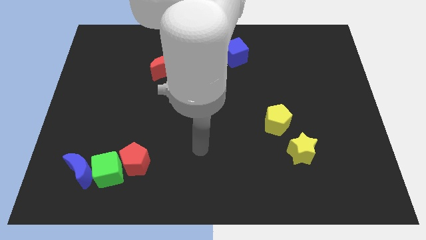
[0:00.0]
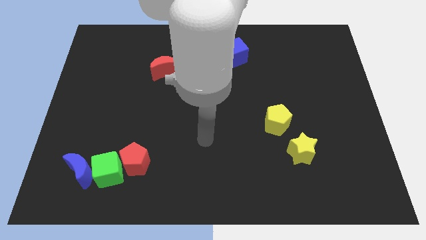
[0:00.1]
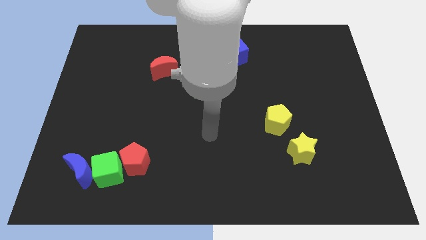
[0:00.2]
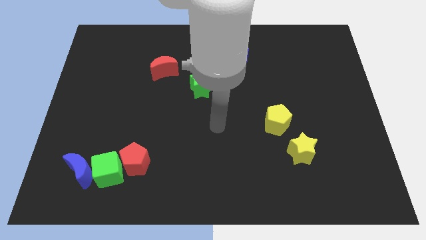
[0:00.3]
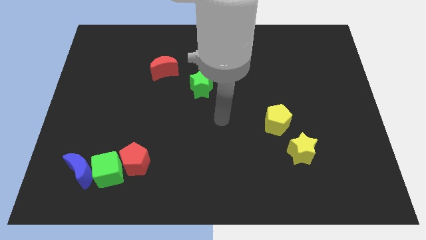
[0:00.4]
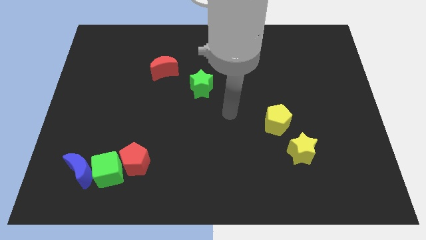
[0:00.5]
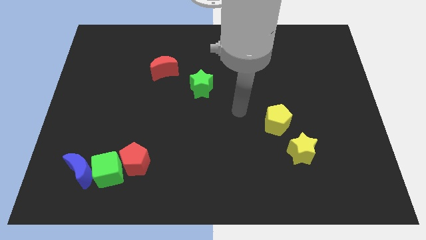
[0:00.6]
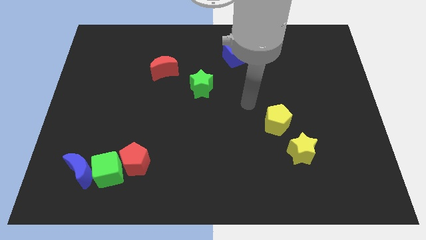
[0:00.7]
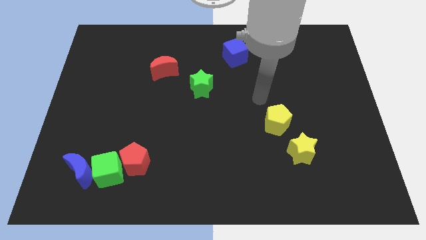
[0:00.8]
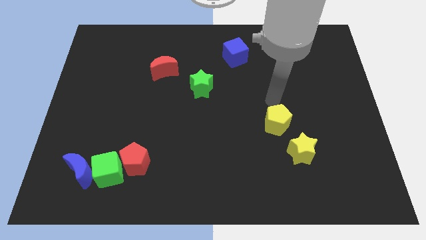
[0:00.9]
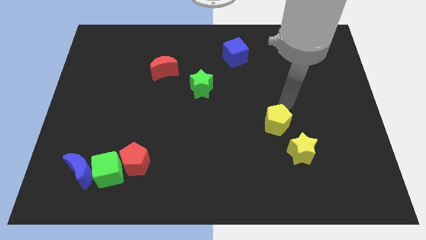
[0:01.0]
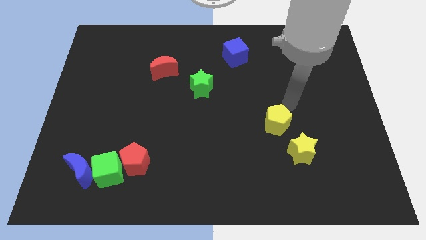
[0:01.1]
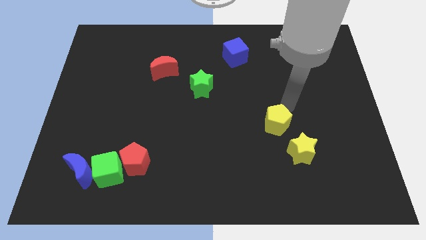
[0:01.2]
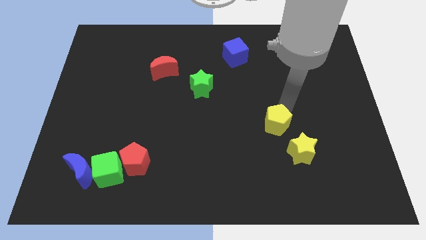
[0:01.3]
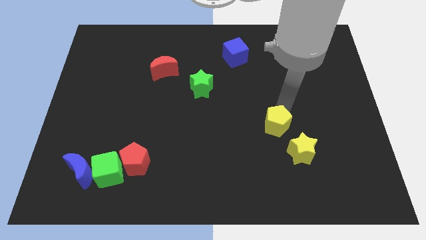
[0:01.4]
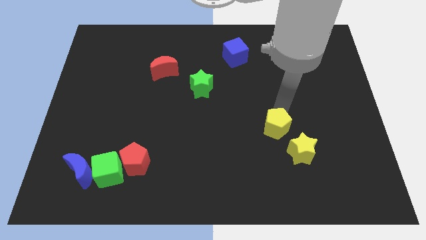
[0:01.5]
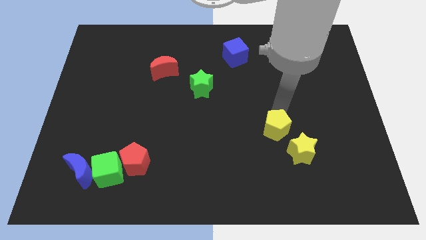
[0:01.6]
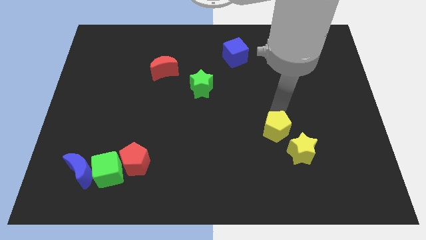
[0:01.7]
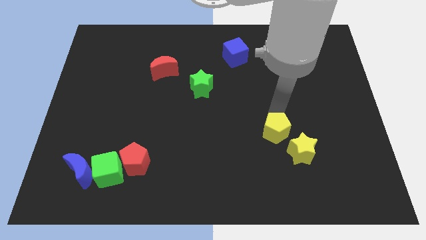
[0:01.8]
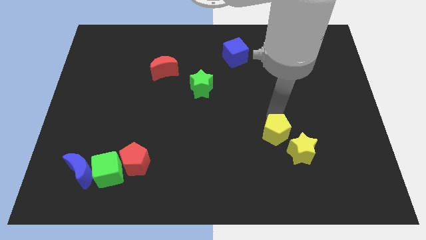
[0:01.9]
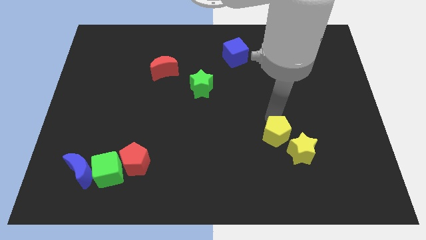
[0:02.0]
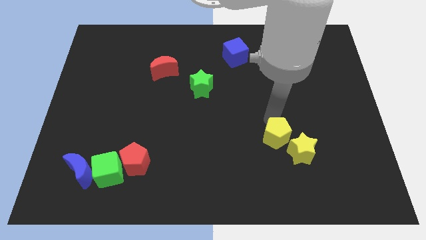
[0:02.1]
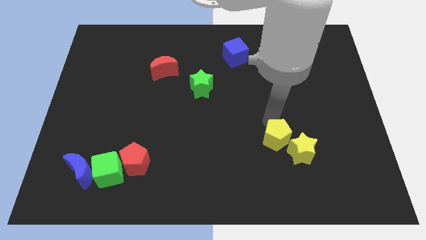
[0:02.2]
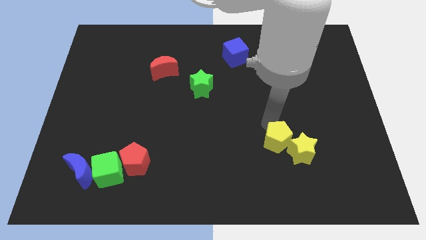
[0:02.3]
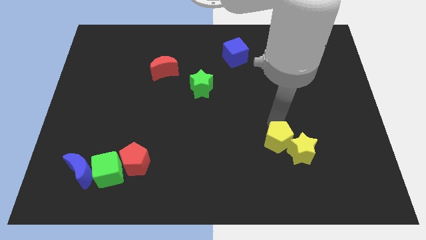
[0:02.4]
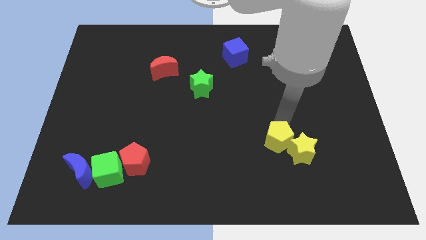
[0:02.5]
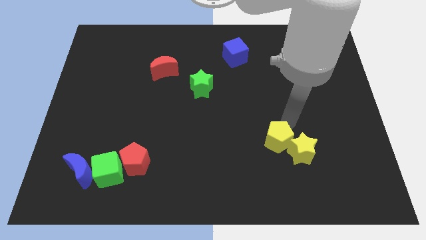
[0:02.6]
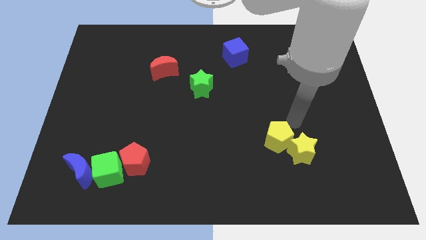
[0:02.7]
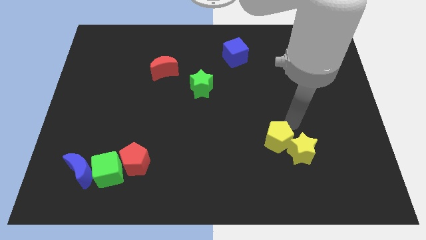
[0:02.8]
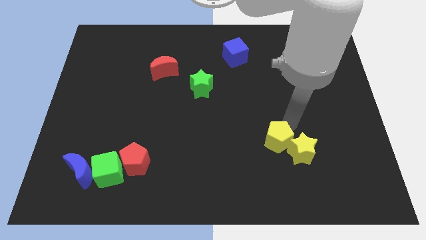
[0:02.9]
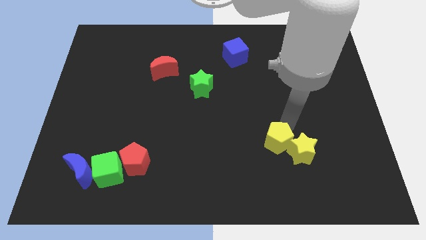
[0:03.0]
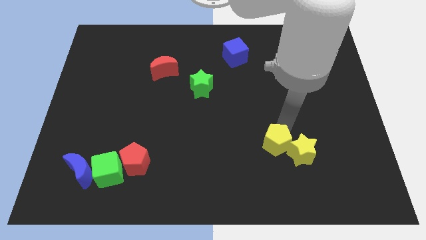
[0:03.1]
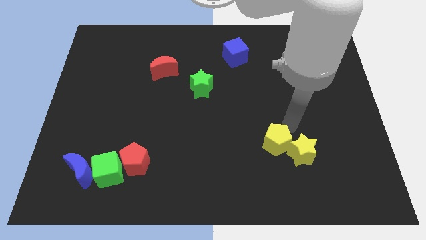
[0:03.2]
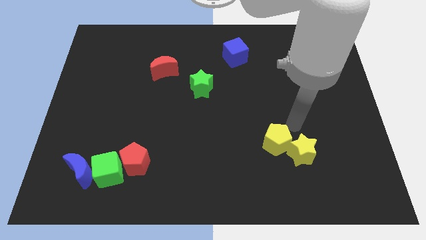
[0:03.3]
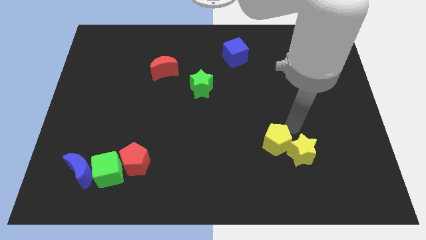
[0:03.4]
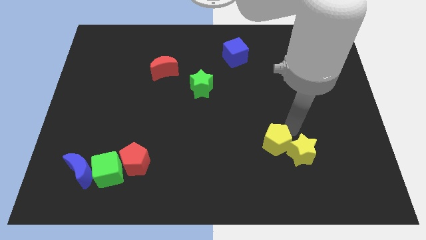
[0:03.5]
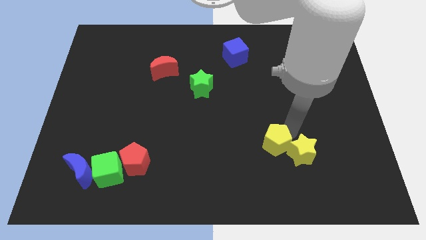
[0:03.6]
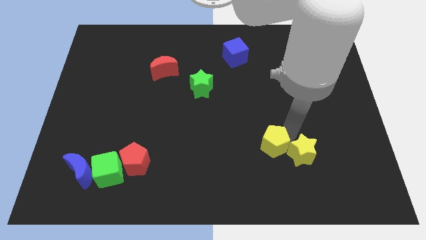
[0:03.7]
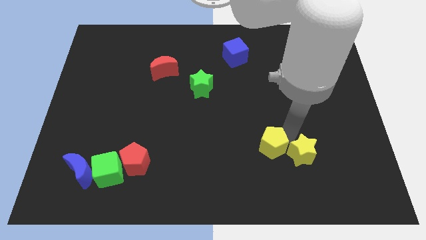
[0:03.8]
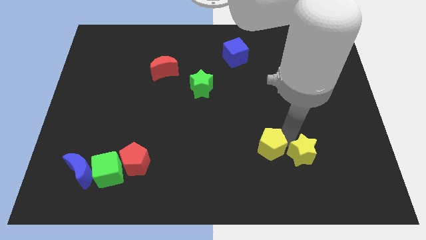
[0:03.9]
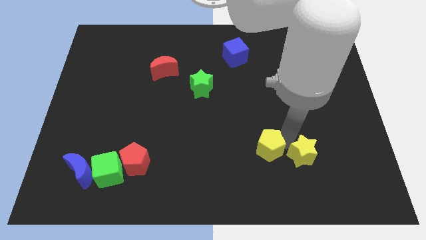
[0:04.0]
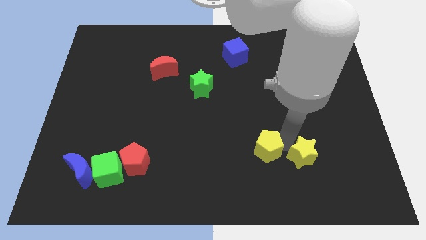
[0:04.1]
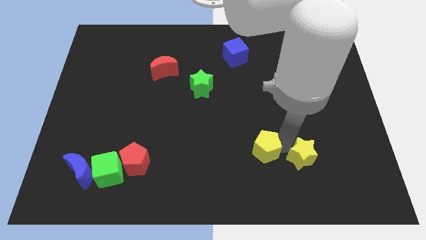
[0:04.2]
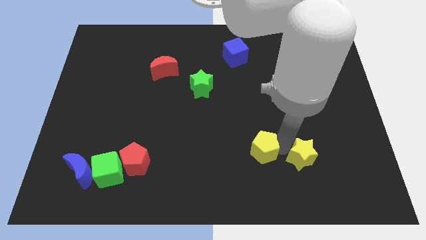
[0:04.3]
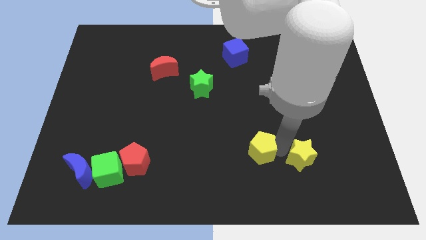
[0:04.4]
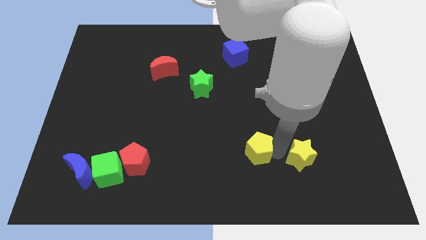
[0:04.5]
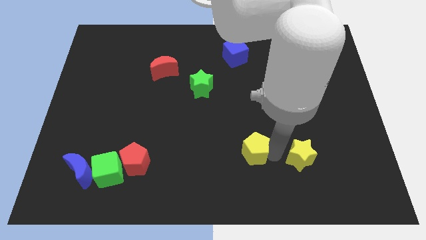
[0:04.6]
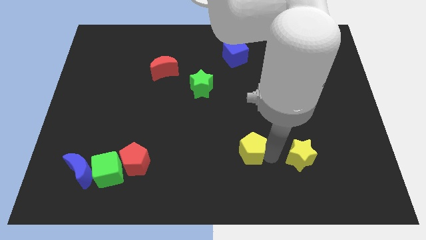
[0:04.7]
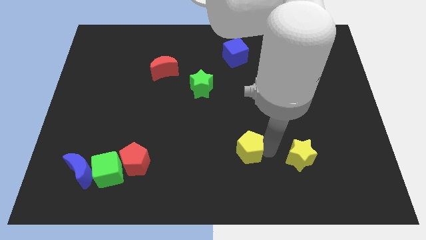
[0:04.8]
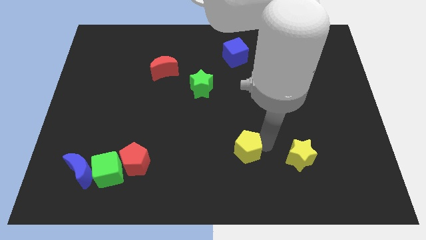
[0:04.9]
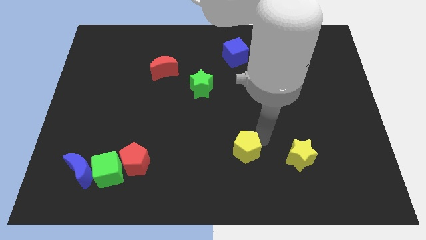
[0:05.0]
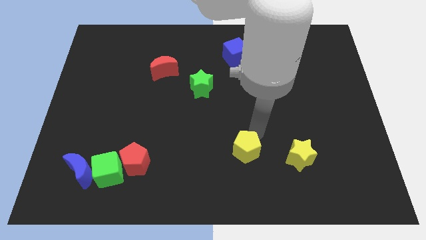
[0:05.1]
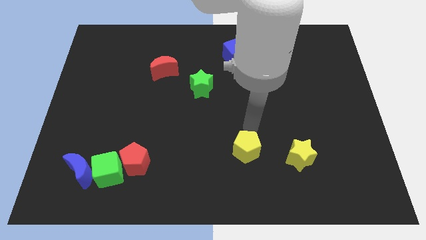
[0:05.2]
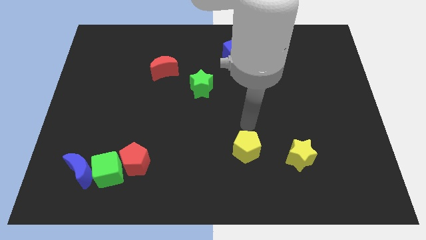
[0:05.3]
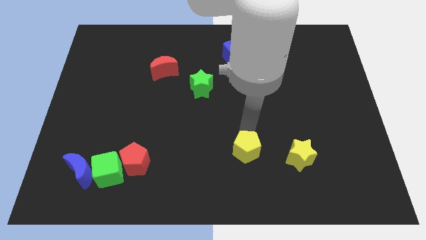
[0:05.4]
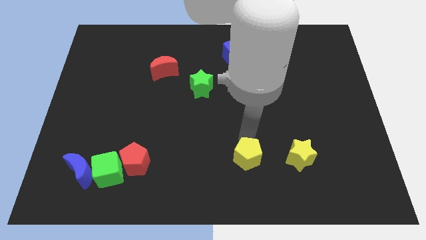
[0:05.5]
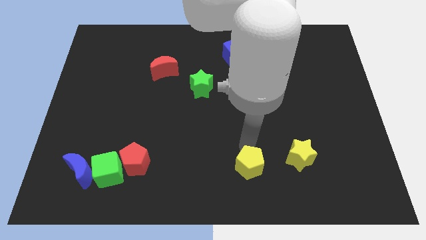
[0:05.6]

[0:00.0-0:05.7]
slide the yellow pentagon to the bottom
